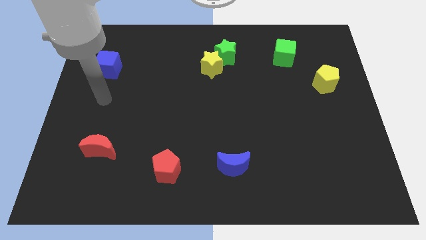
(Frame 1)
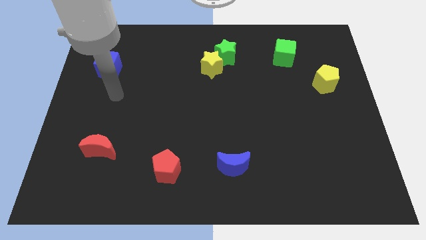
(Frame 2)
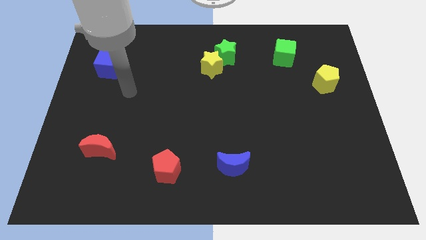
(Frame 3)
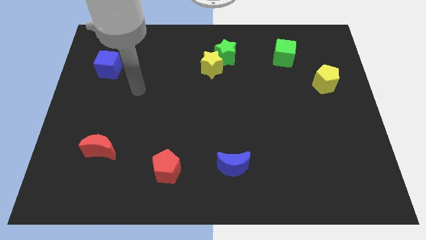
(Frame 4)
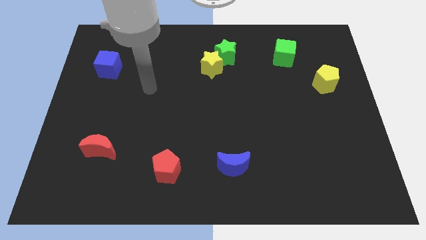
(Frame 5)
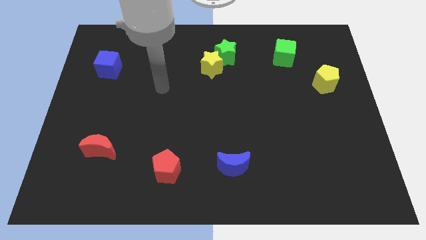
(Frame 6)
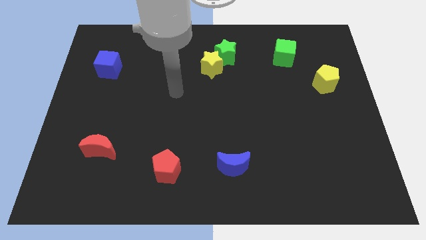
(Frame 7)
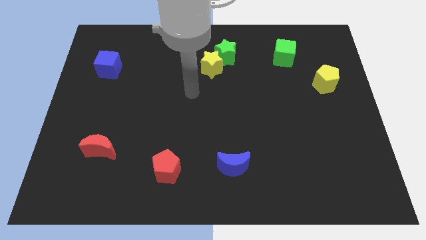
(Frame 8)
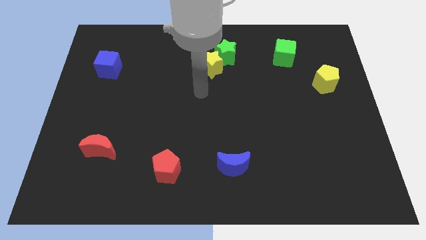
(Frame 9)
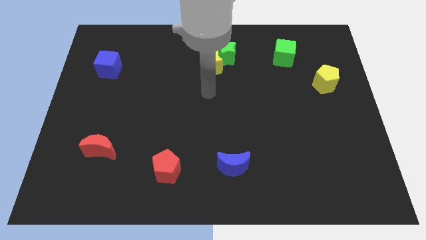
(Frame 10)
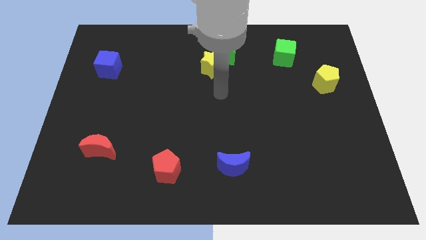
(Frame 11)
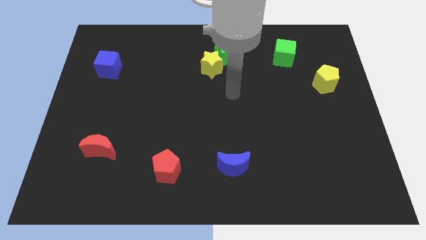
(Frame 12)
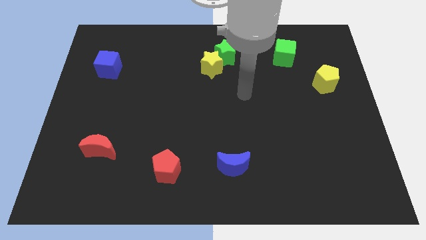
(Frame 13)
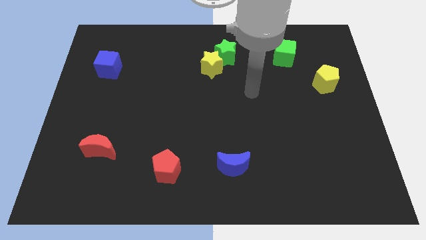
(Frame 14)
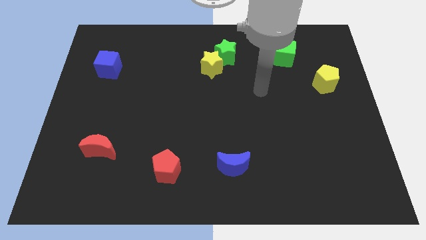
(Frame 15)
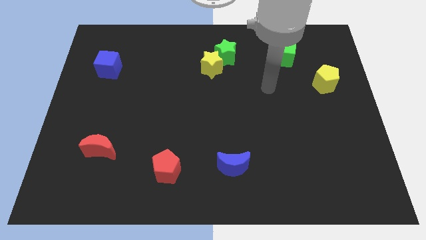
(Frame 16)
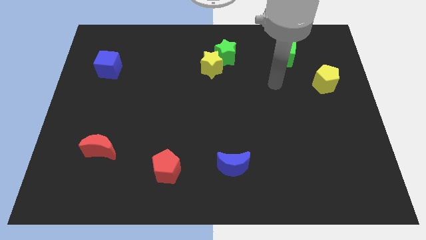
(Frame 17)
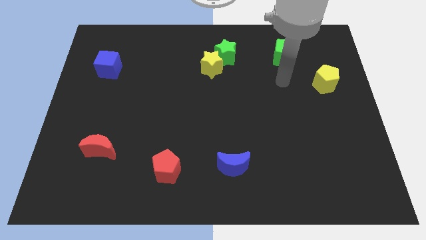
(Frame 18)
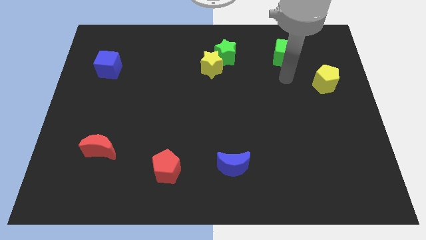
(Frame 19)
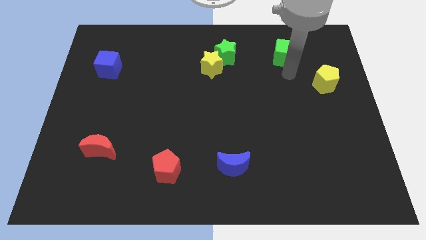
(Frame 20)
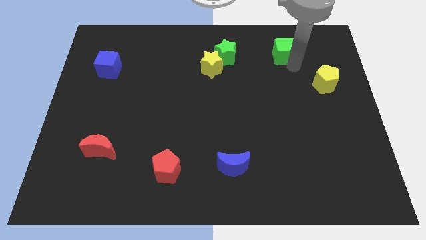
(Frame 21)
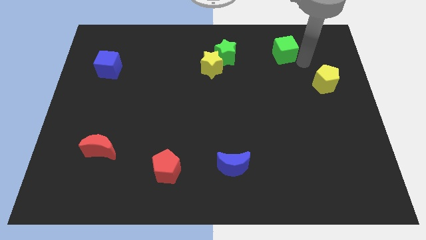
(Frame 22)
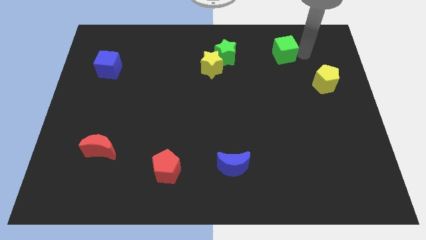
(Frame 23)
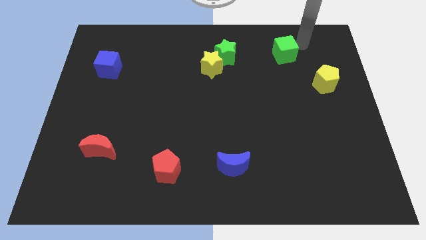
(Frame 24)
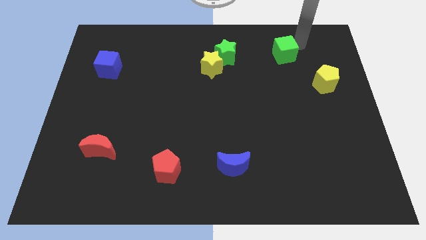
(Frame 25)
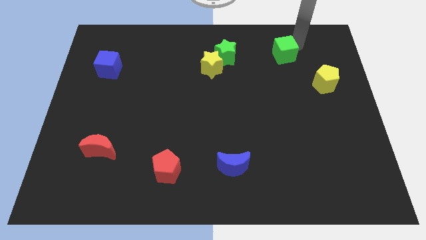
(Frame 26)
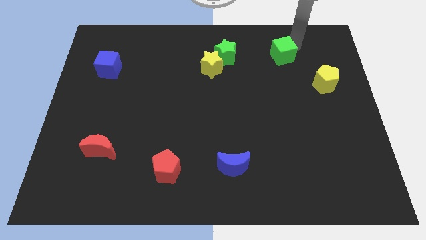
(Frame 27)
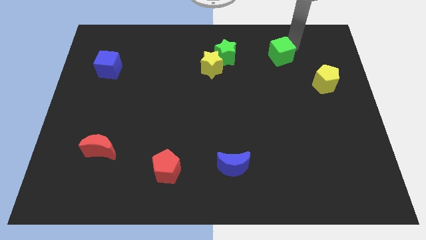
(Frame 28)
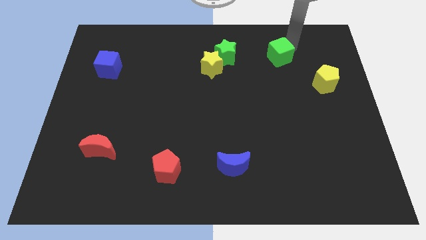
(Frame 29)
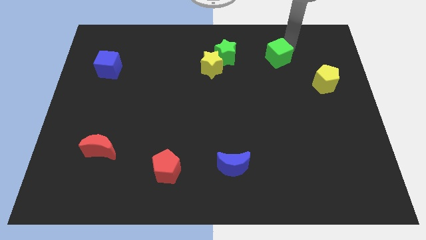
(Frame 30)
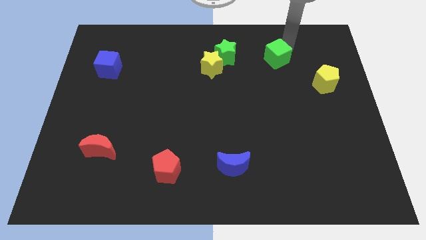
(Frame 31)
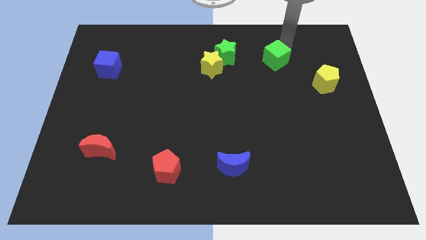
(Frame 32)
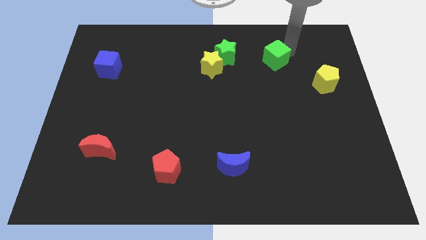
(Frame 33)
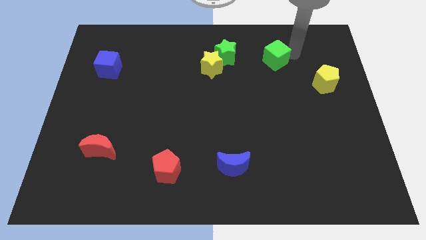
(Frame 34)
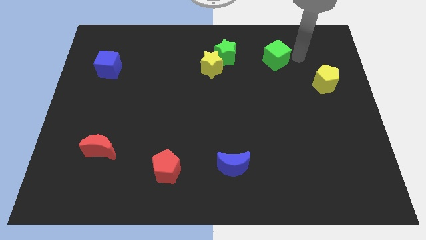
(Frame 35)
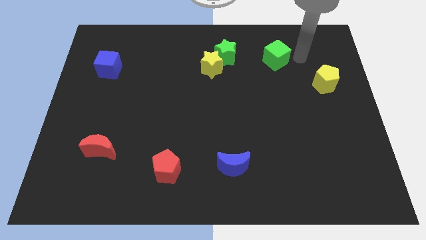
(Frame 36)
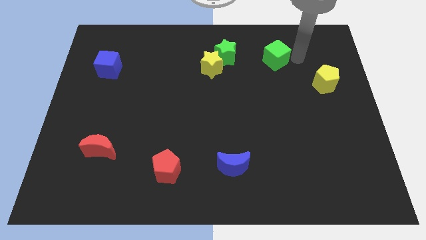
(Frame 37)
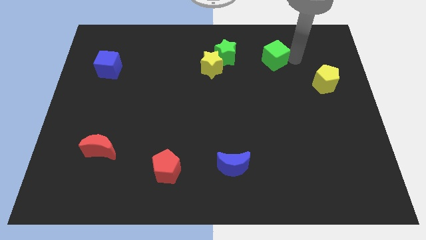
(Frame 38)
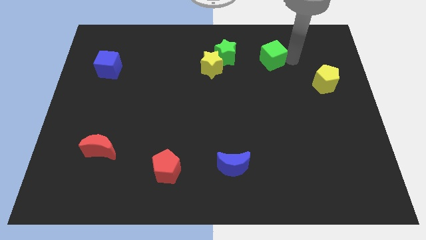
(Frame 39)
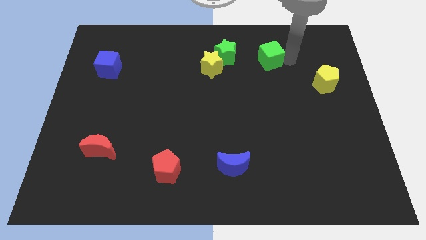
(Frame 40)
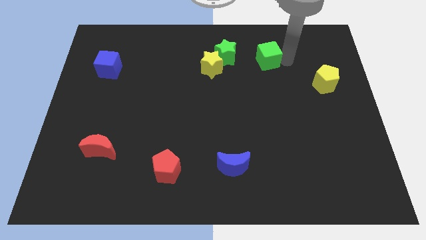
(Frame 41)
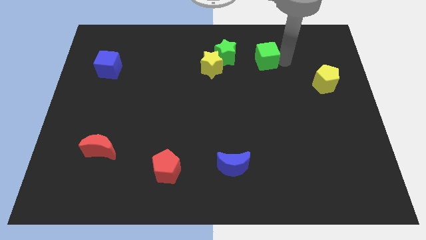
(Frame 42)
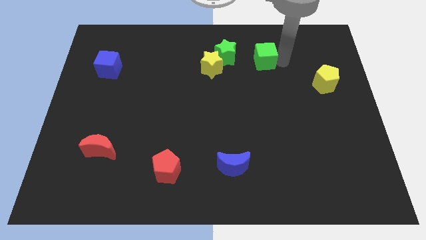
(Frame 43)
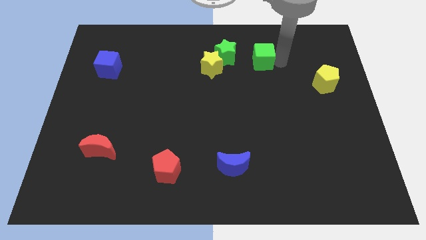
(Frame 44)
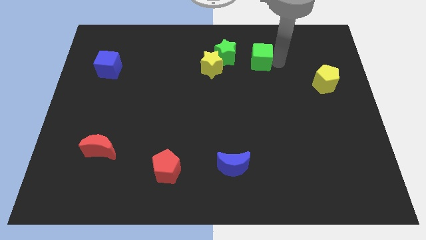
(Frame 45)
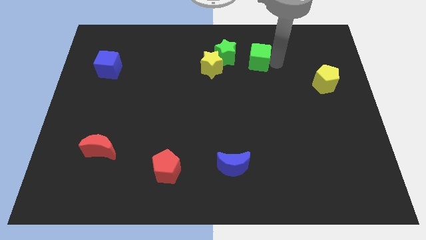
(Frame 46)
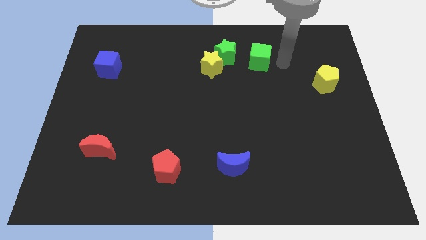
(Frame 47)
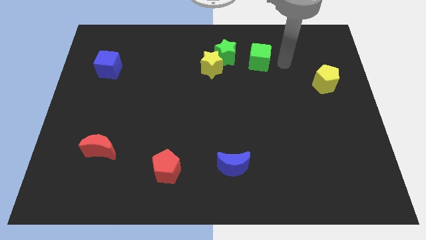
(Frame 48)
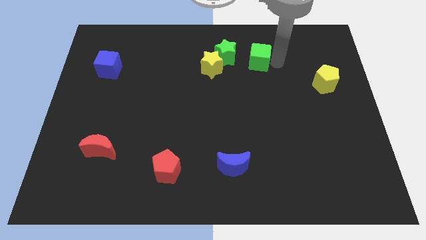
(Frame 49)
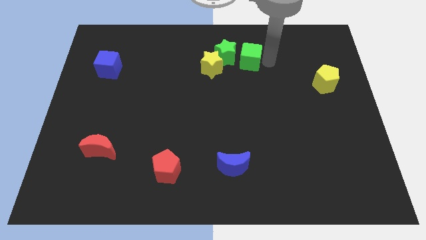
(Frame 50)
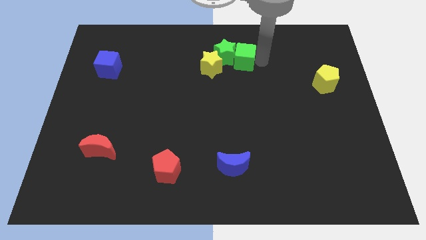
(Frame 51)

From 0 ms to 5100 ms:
push the green cube to the green star

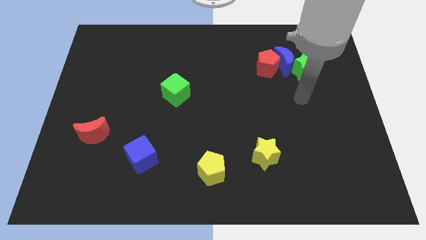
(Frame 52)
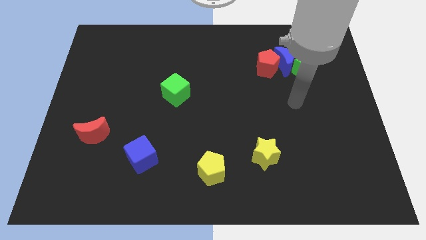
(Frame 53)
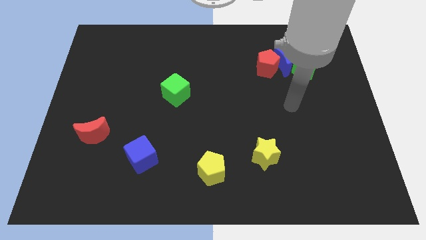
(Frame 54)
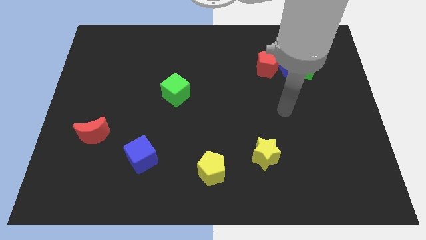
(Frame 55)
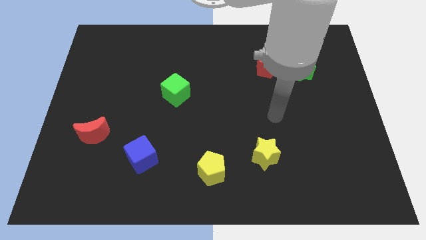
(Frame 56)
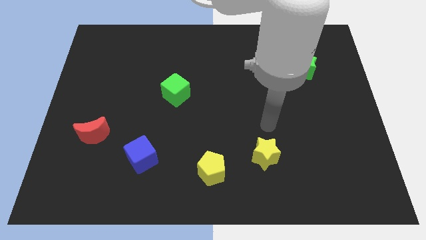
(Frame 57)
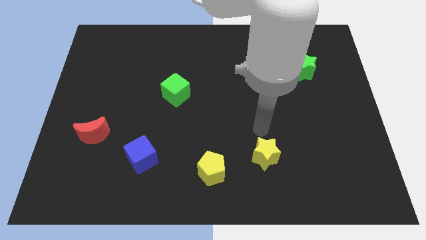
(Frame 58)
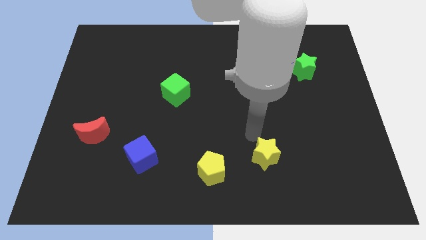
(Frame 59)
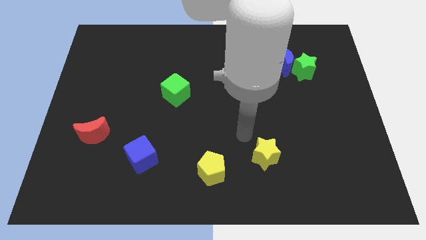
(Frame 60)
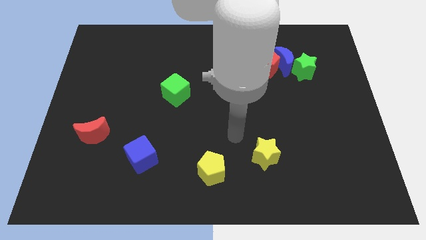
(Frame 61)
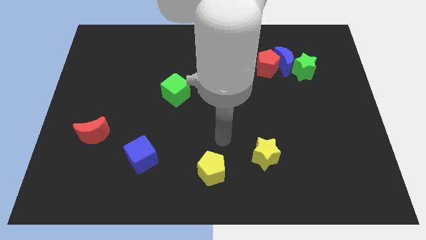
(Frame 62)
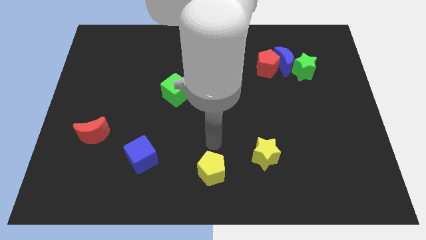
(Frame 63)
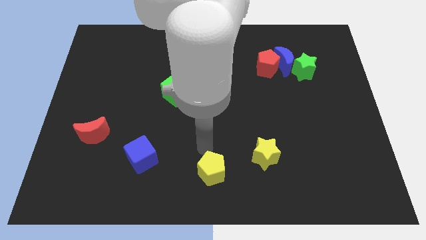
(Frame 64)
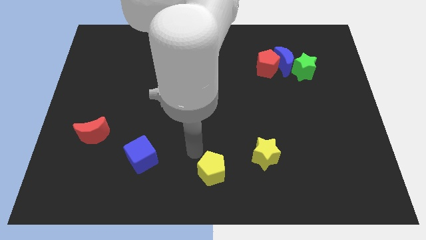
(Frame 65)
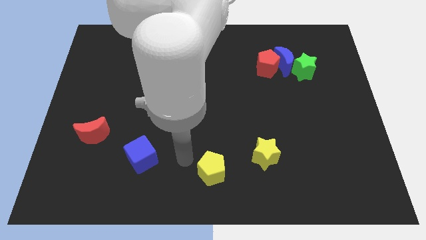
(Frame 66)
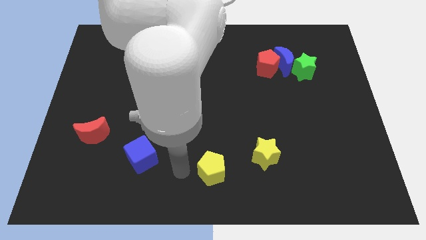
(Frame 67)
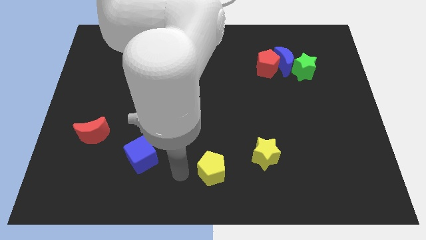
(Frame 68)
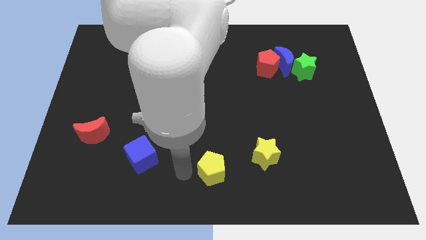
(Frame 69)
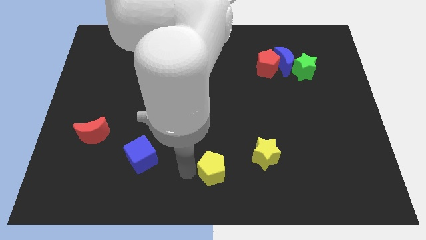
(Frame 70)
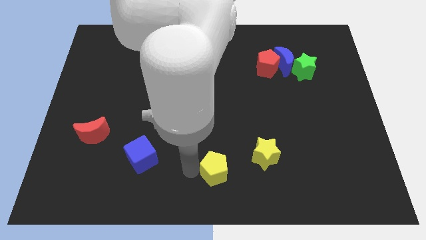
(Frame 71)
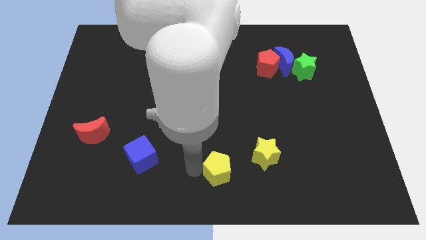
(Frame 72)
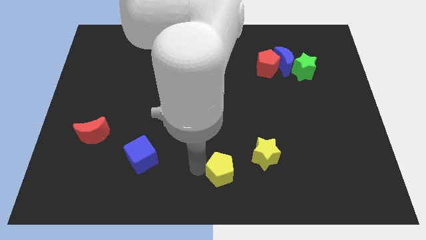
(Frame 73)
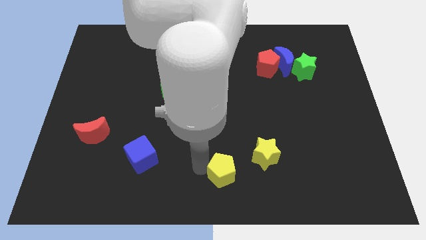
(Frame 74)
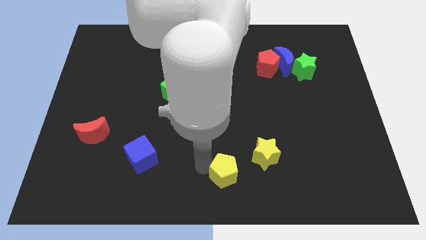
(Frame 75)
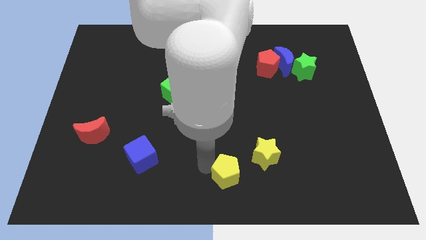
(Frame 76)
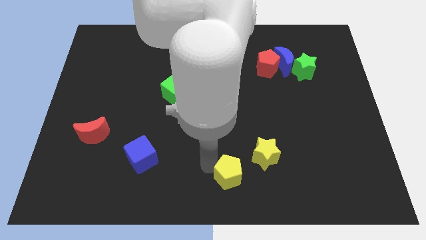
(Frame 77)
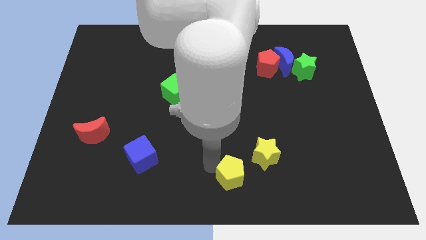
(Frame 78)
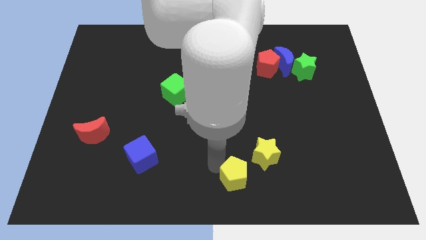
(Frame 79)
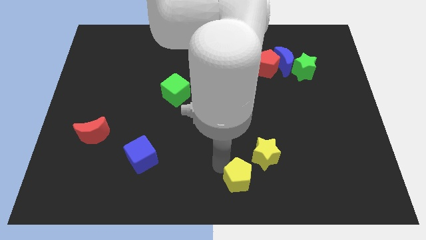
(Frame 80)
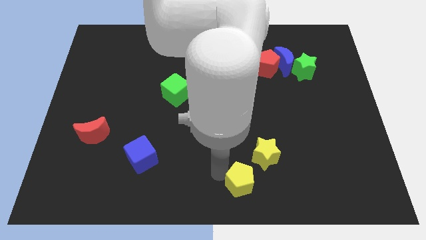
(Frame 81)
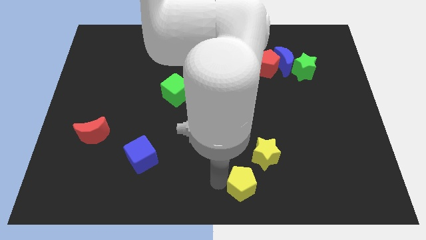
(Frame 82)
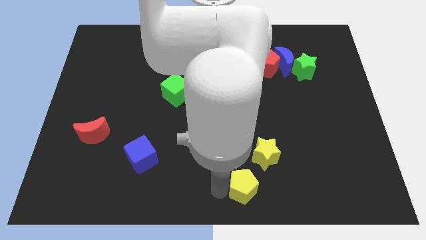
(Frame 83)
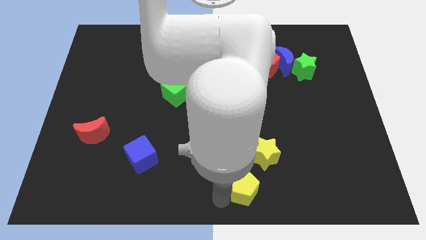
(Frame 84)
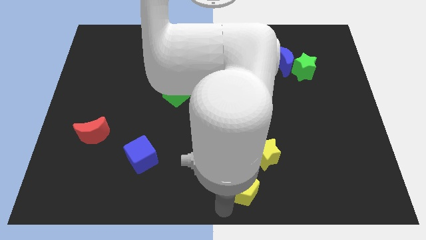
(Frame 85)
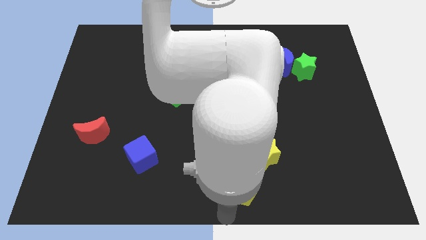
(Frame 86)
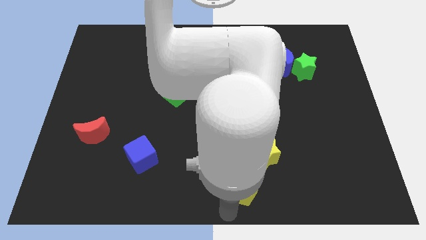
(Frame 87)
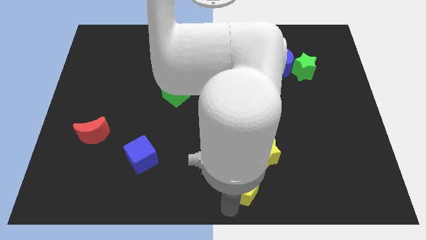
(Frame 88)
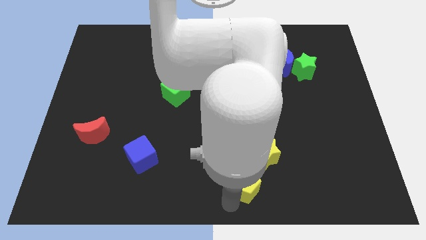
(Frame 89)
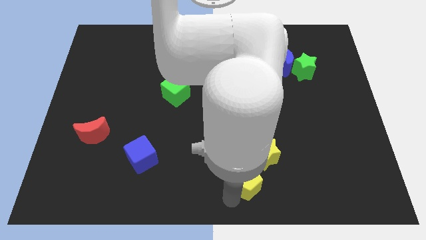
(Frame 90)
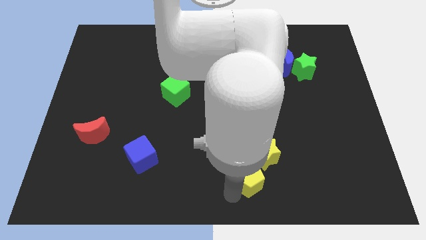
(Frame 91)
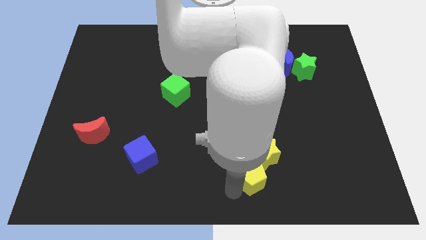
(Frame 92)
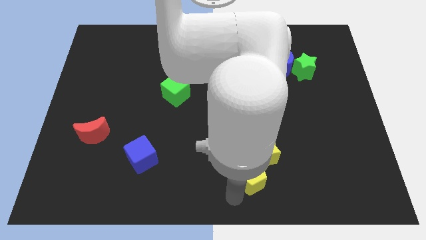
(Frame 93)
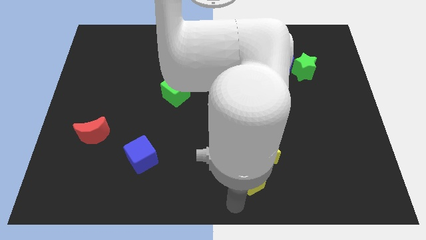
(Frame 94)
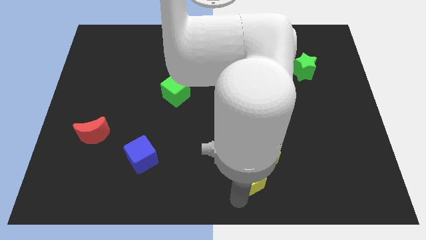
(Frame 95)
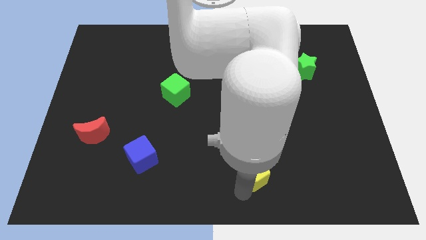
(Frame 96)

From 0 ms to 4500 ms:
move the yellow pentagon towards the yellow star
